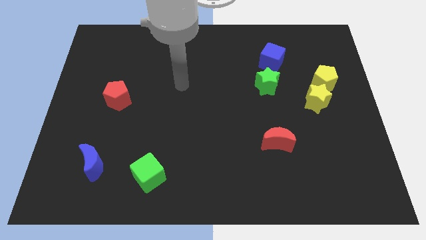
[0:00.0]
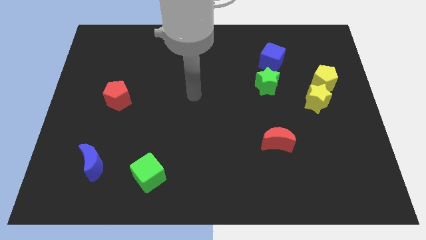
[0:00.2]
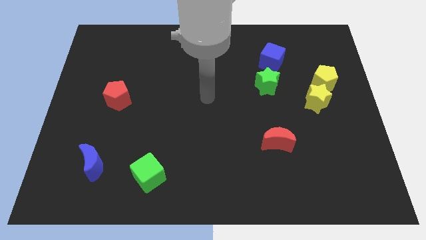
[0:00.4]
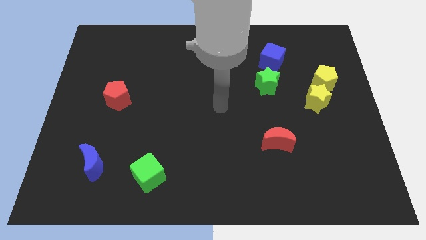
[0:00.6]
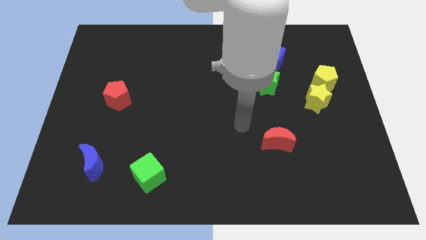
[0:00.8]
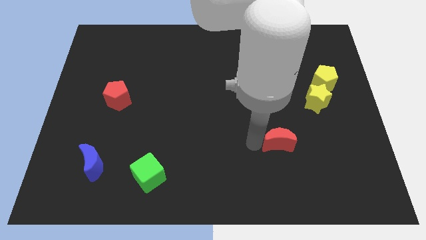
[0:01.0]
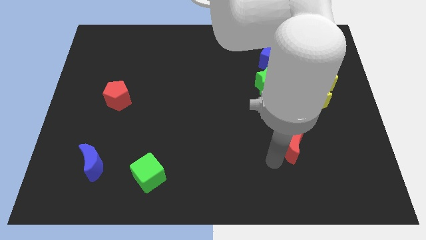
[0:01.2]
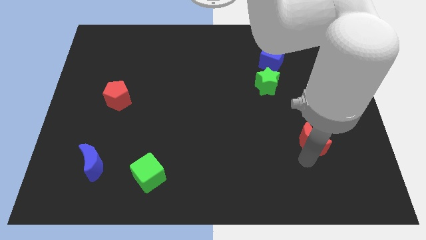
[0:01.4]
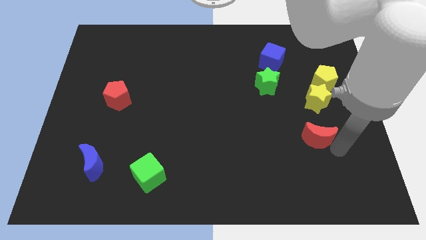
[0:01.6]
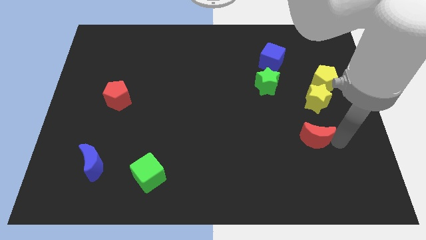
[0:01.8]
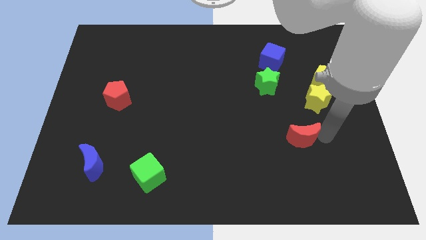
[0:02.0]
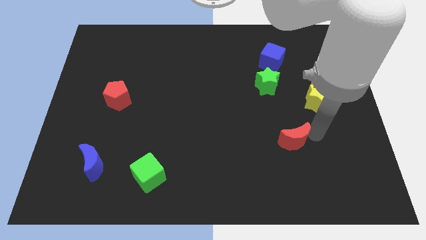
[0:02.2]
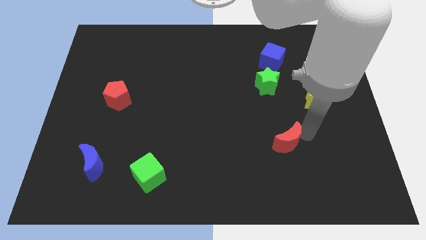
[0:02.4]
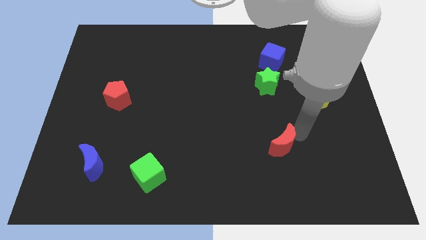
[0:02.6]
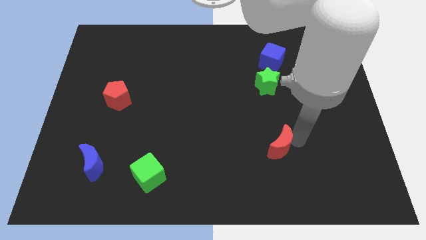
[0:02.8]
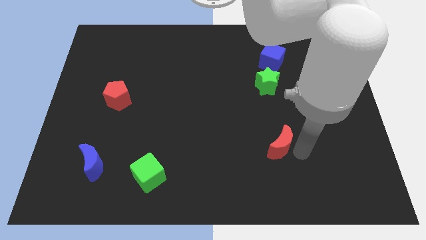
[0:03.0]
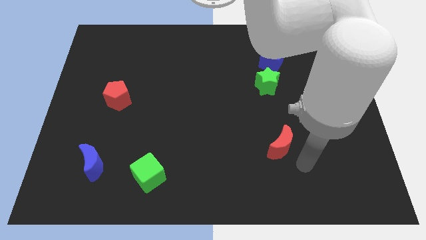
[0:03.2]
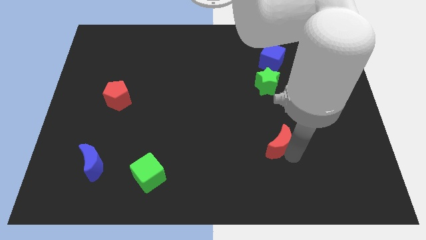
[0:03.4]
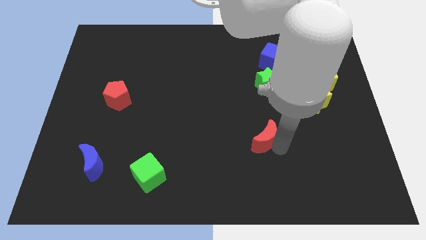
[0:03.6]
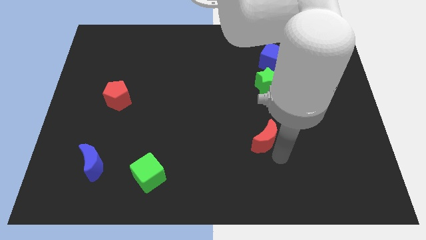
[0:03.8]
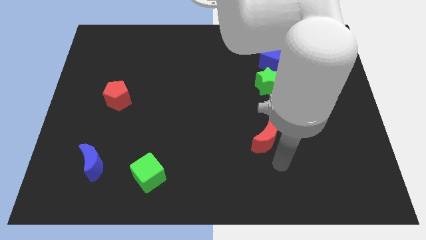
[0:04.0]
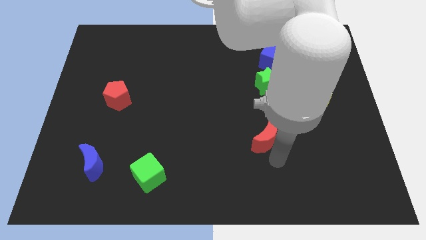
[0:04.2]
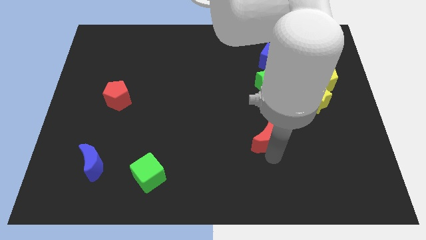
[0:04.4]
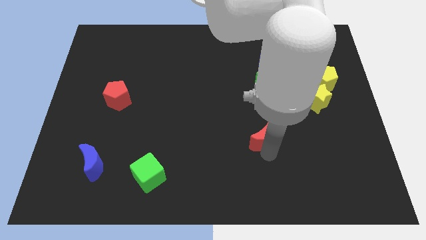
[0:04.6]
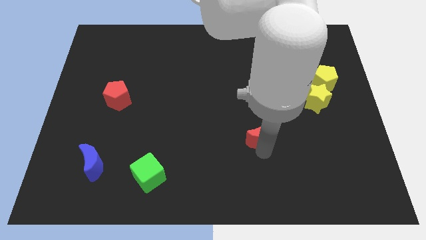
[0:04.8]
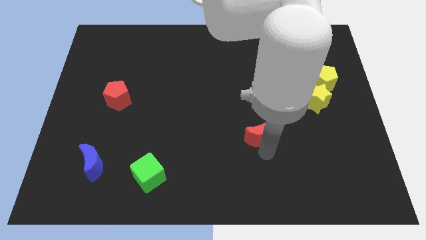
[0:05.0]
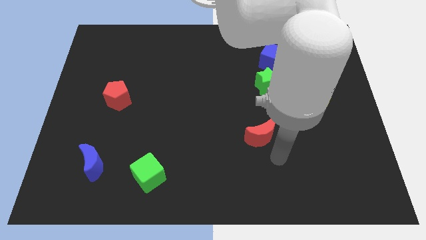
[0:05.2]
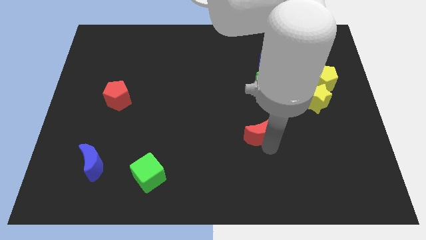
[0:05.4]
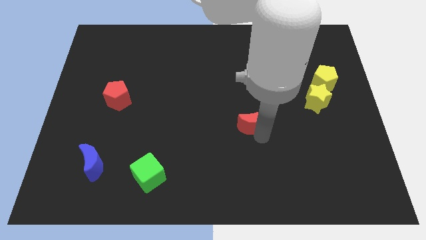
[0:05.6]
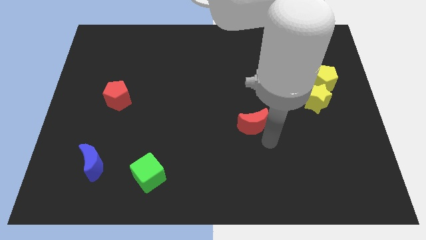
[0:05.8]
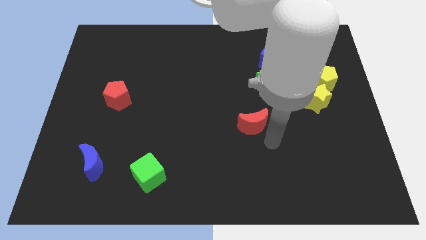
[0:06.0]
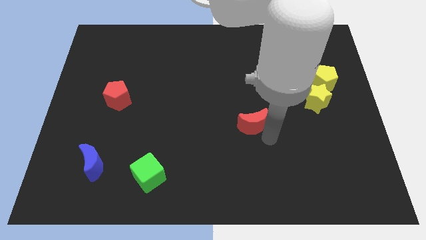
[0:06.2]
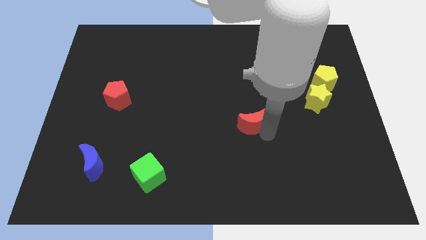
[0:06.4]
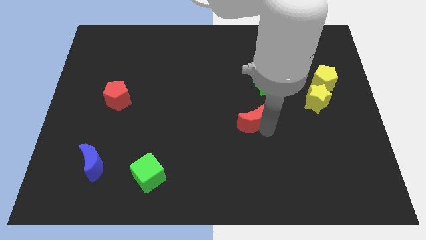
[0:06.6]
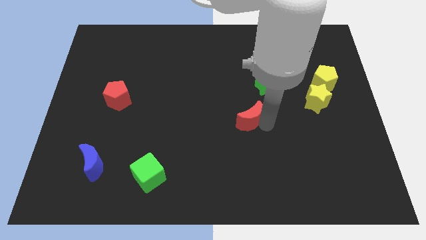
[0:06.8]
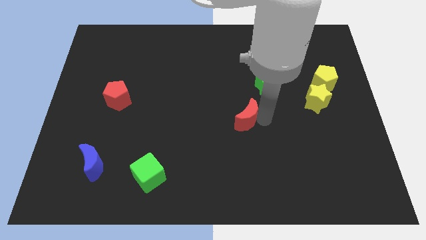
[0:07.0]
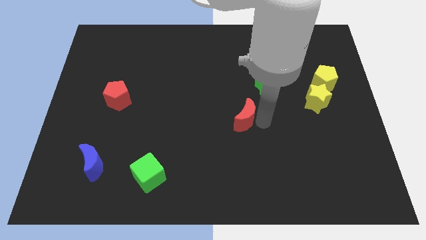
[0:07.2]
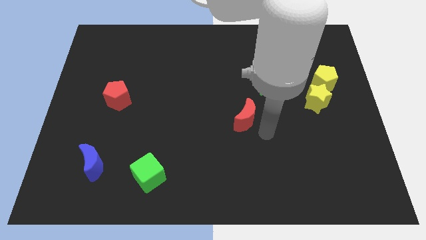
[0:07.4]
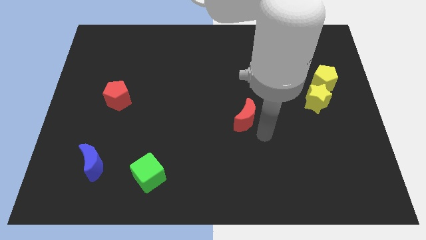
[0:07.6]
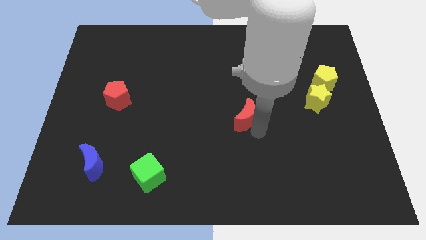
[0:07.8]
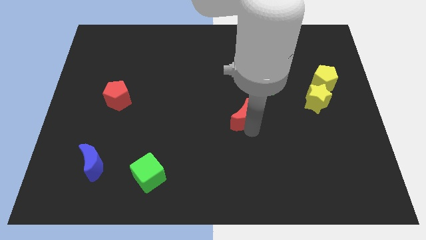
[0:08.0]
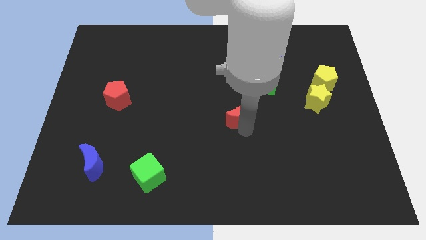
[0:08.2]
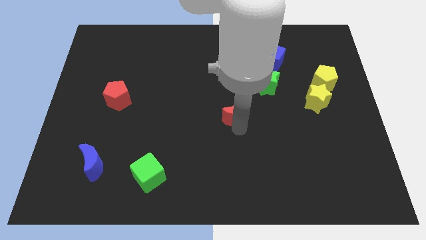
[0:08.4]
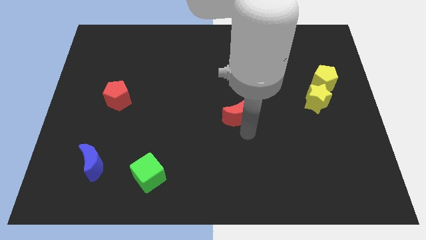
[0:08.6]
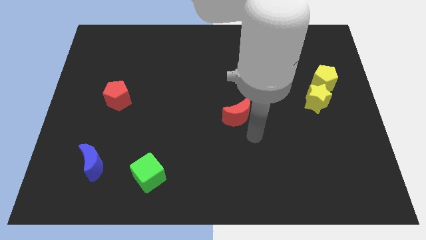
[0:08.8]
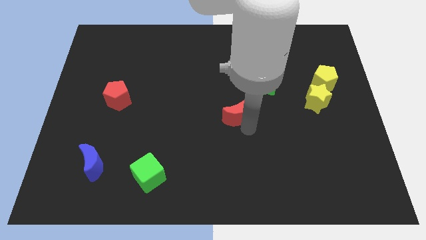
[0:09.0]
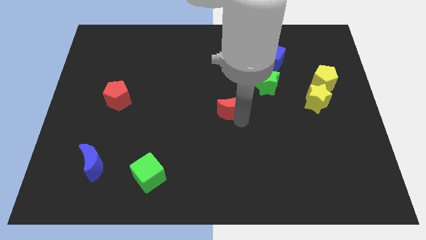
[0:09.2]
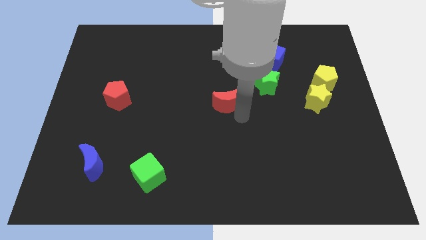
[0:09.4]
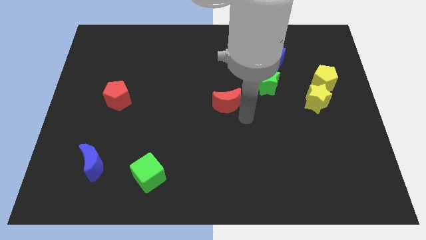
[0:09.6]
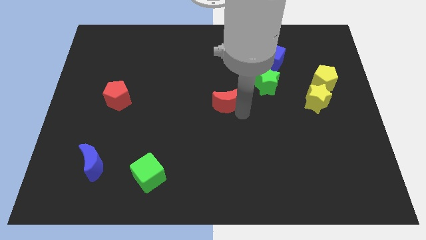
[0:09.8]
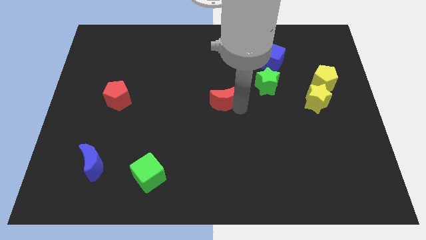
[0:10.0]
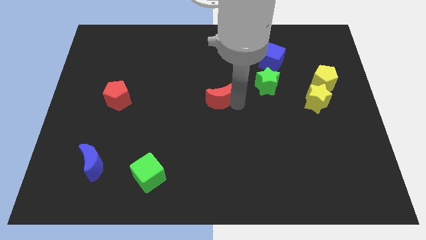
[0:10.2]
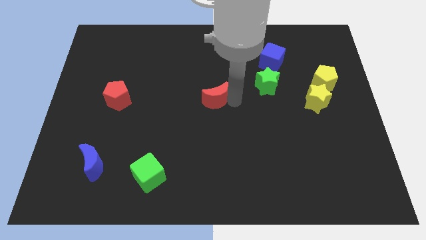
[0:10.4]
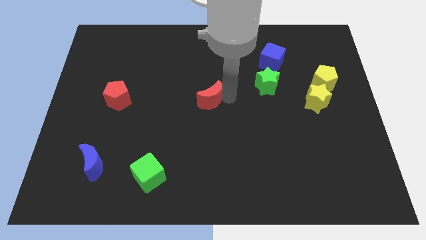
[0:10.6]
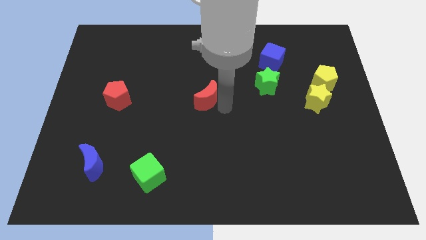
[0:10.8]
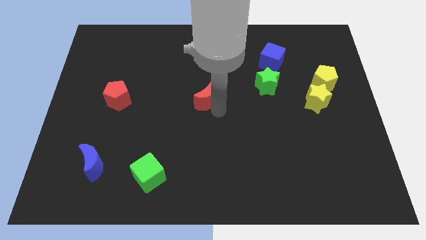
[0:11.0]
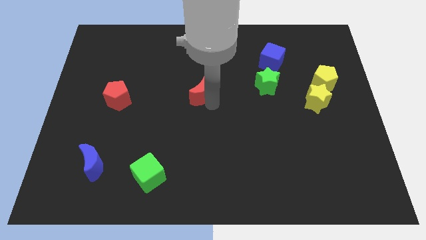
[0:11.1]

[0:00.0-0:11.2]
push the red moon upwards and then left

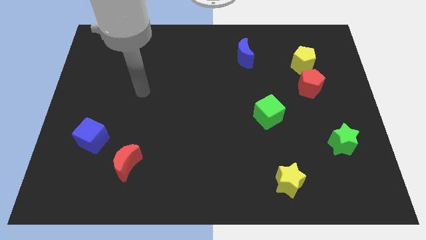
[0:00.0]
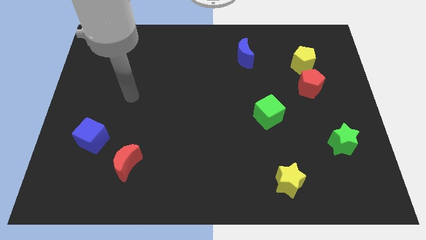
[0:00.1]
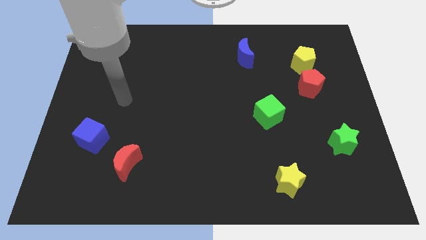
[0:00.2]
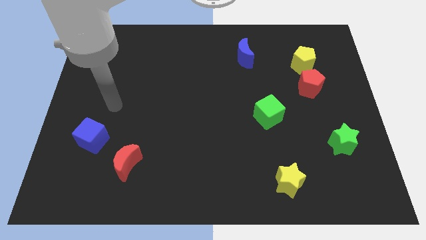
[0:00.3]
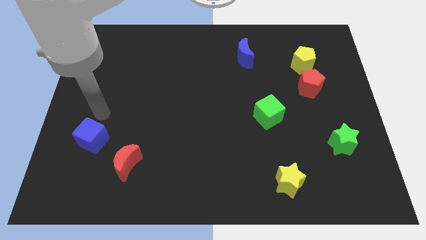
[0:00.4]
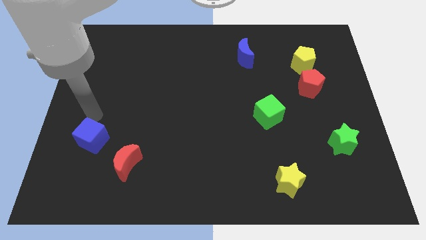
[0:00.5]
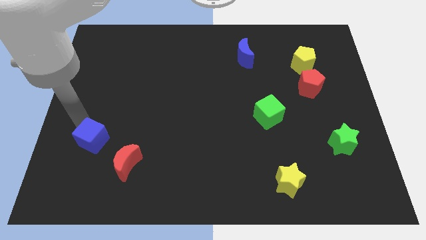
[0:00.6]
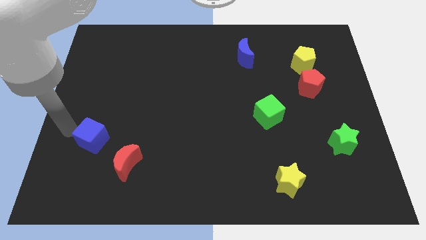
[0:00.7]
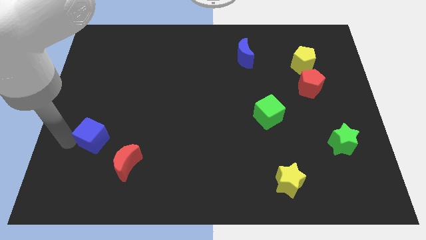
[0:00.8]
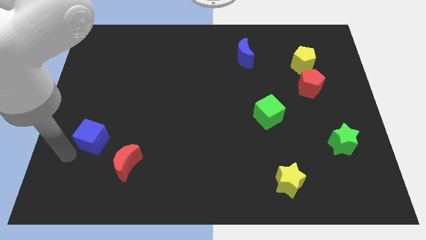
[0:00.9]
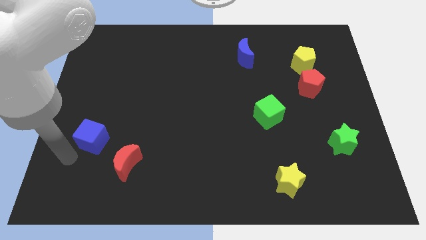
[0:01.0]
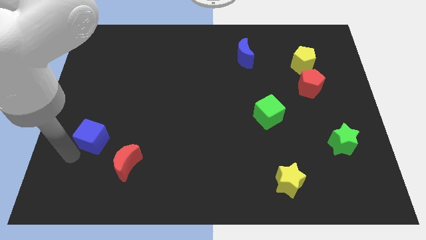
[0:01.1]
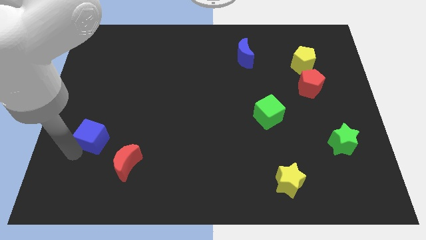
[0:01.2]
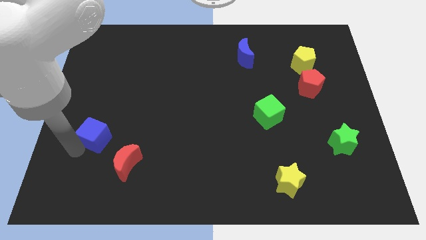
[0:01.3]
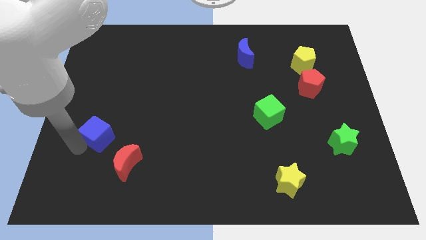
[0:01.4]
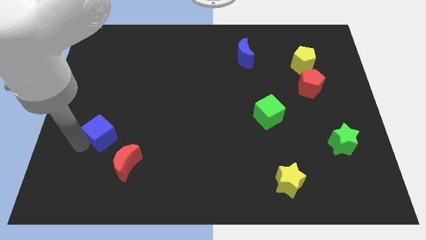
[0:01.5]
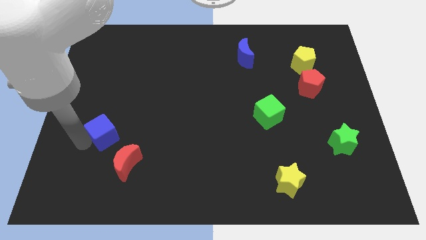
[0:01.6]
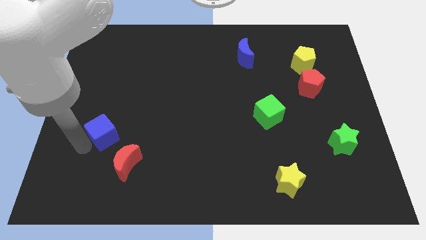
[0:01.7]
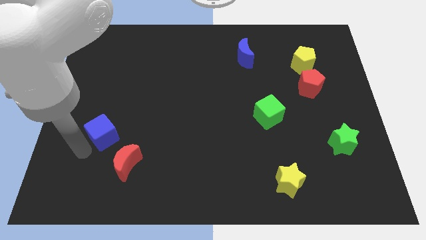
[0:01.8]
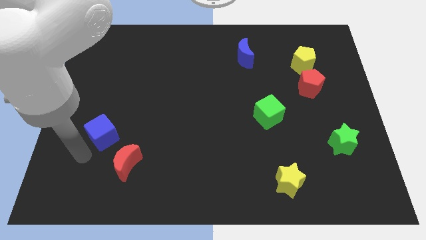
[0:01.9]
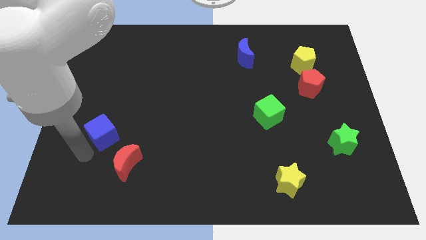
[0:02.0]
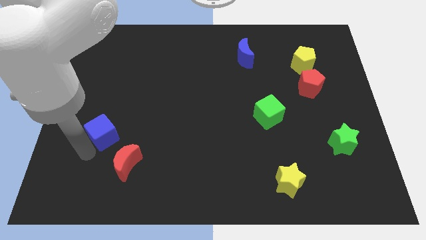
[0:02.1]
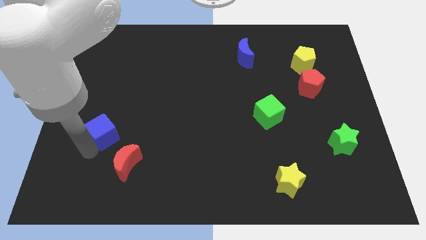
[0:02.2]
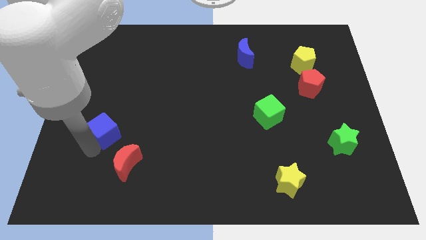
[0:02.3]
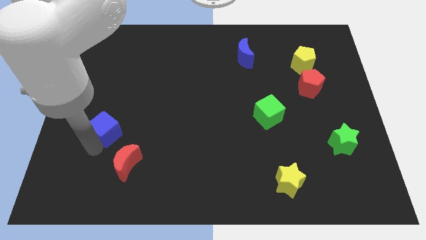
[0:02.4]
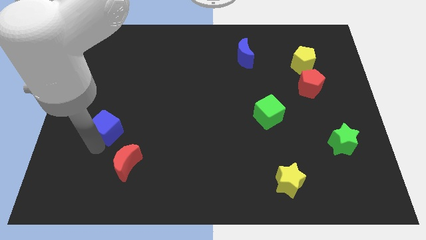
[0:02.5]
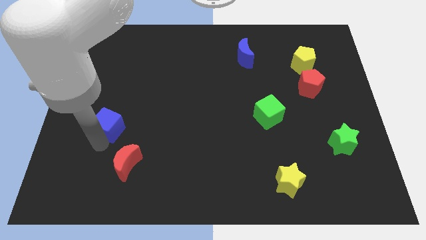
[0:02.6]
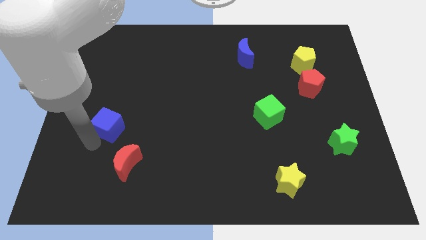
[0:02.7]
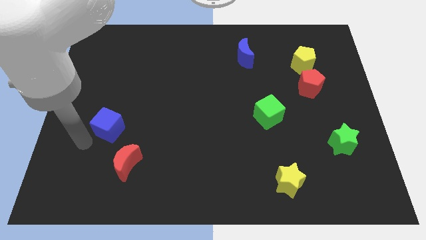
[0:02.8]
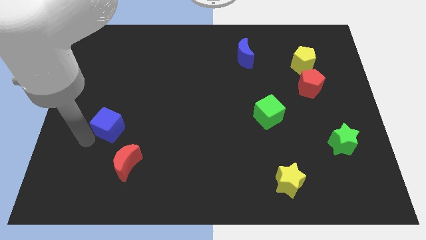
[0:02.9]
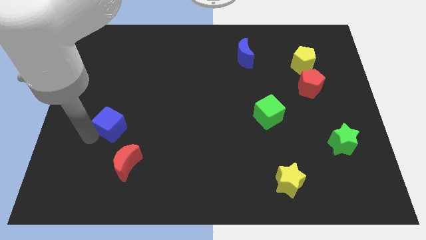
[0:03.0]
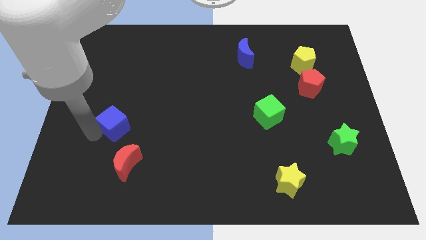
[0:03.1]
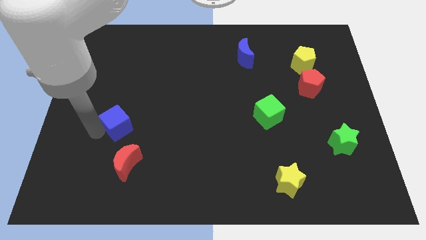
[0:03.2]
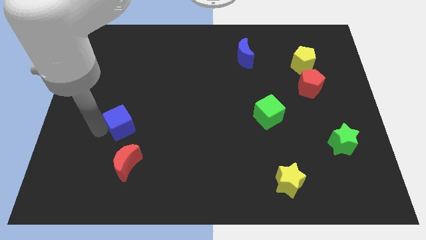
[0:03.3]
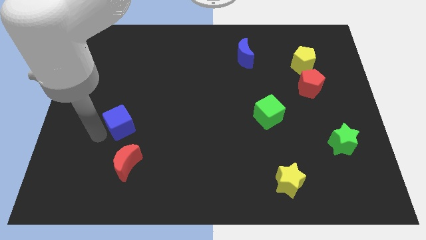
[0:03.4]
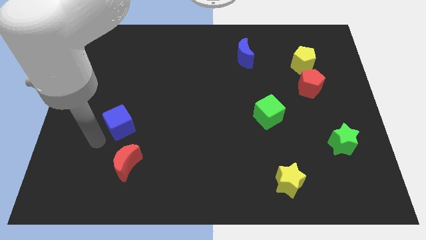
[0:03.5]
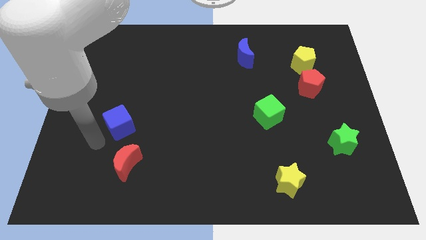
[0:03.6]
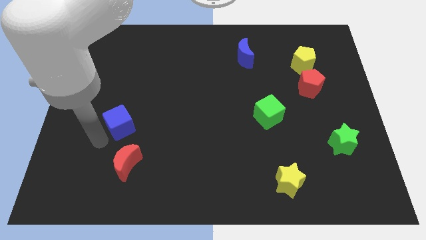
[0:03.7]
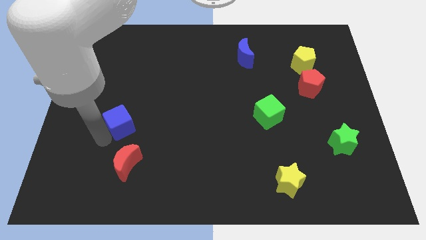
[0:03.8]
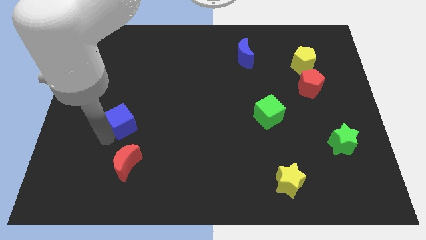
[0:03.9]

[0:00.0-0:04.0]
slide the blue cube diagonally upwards and to the right a little bit
